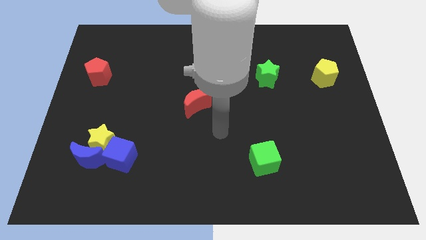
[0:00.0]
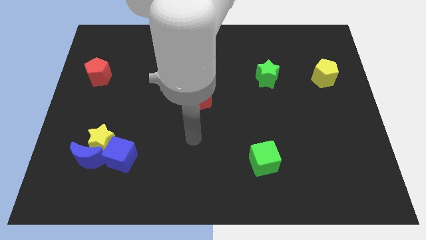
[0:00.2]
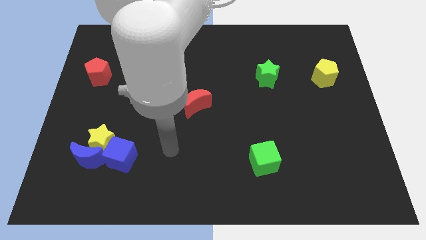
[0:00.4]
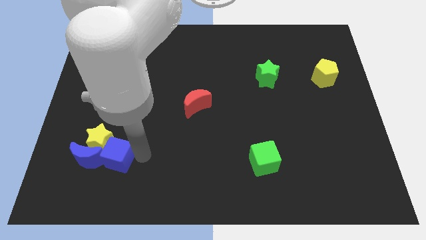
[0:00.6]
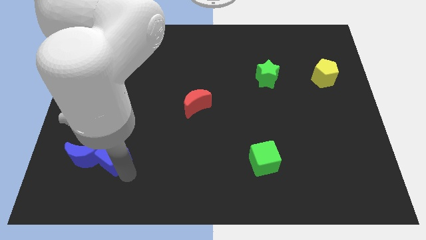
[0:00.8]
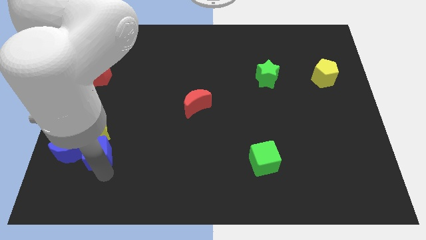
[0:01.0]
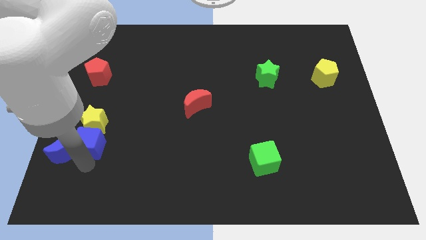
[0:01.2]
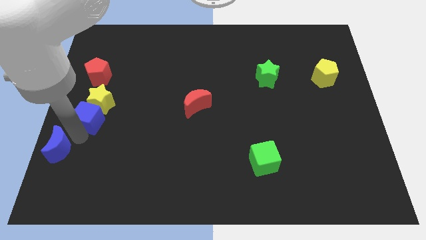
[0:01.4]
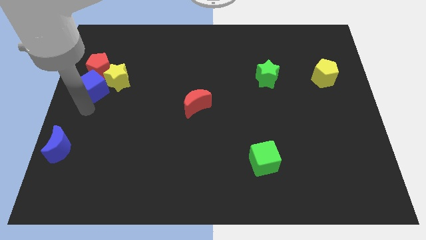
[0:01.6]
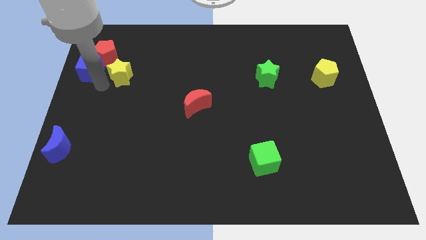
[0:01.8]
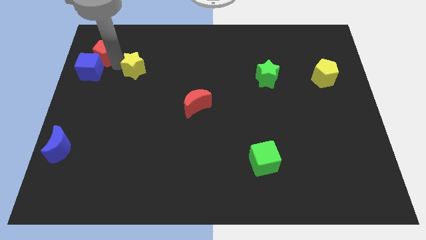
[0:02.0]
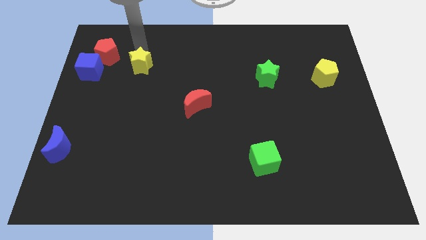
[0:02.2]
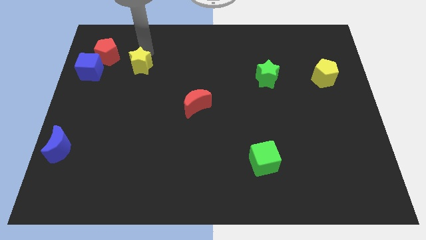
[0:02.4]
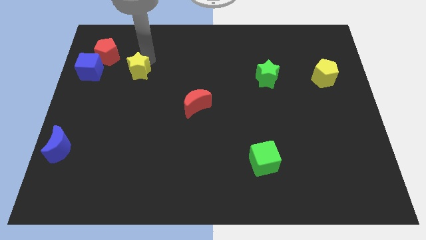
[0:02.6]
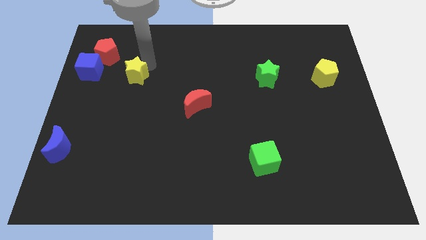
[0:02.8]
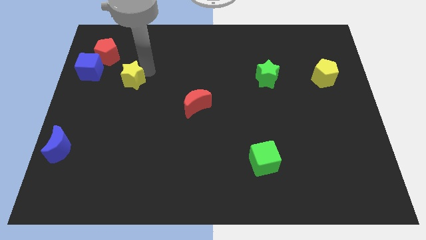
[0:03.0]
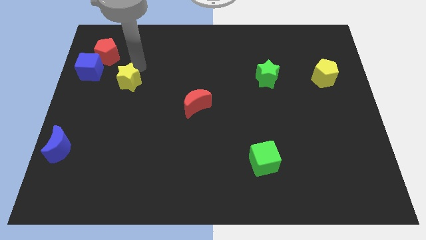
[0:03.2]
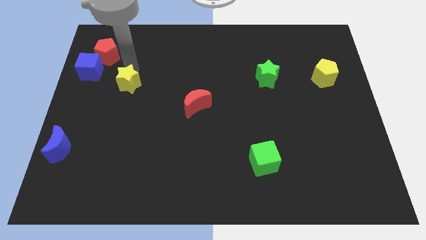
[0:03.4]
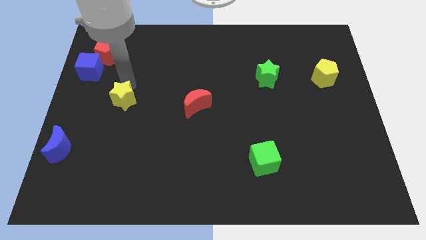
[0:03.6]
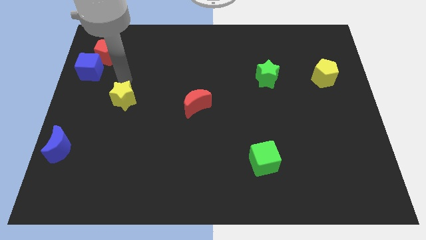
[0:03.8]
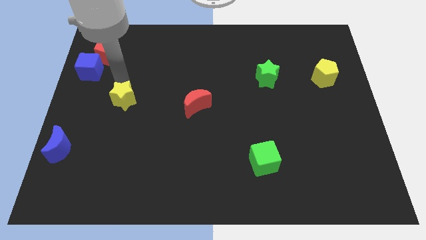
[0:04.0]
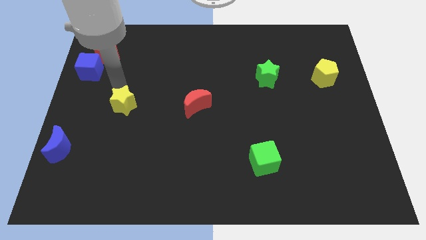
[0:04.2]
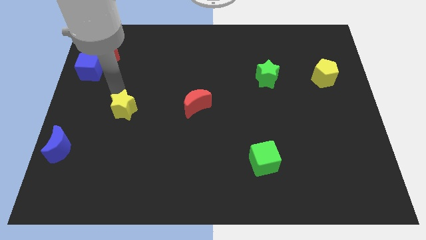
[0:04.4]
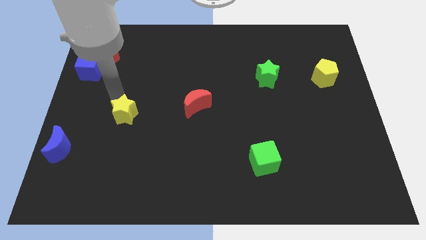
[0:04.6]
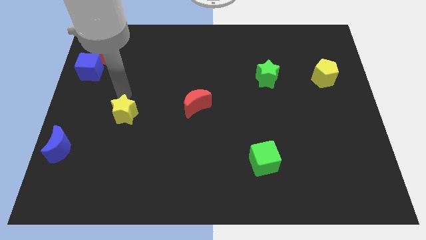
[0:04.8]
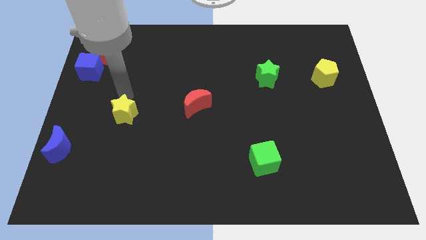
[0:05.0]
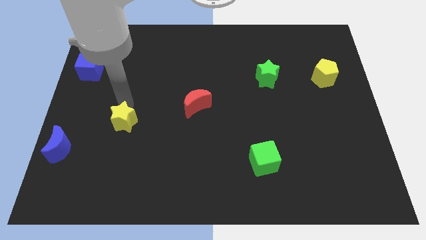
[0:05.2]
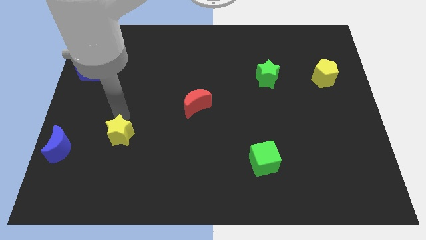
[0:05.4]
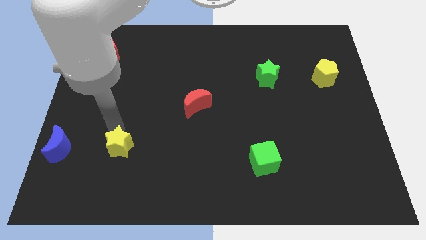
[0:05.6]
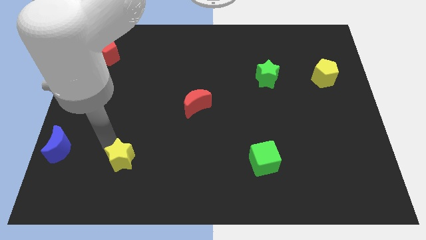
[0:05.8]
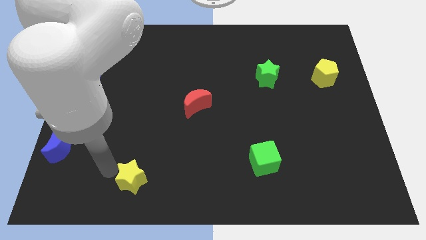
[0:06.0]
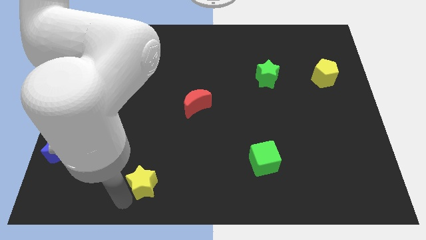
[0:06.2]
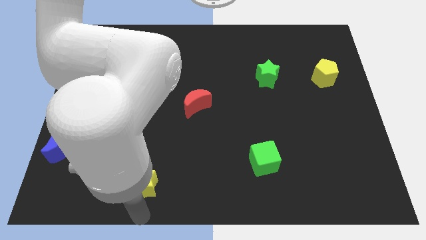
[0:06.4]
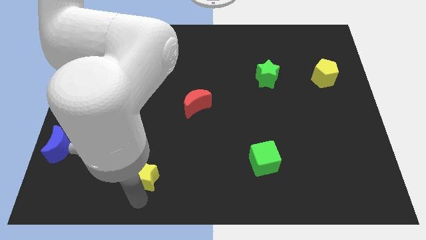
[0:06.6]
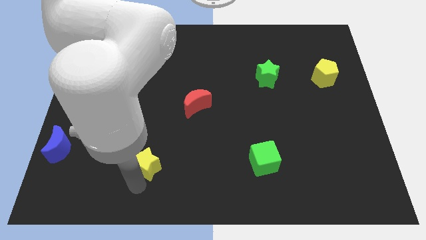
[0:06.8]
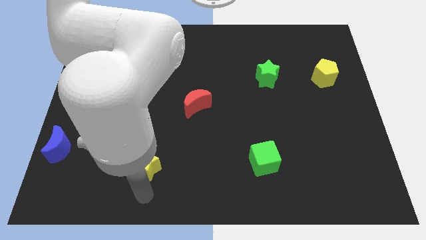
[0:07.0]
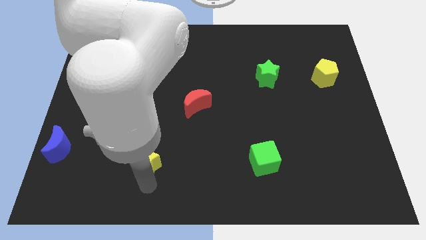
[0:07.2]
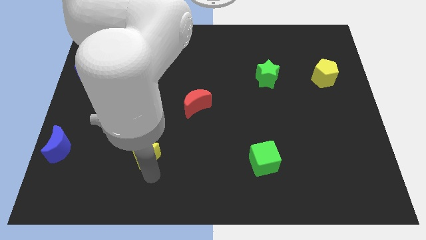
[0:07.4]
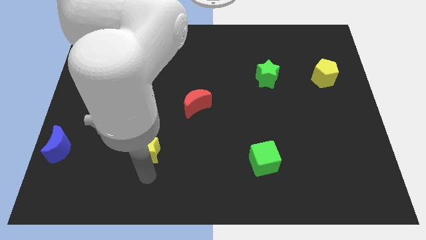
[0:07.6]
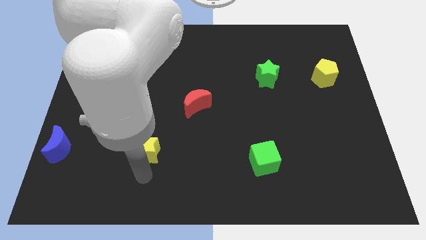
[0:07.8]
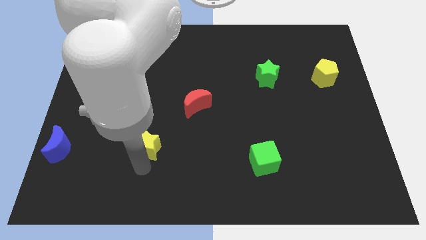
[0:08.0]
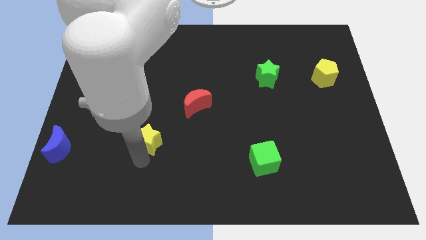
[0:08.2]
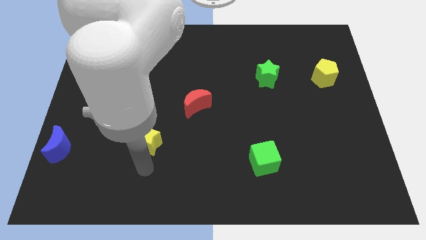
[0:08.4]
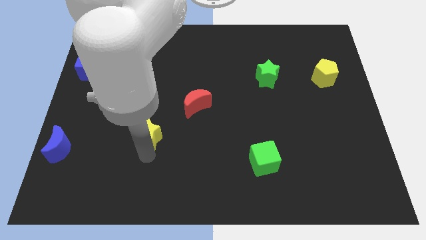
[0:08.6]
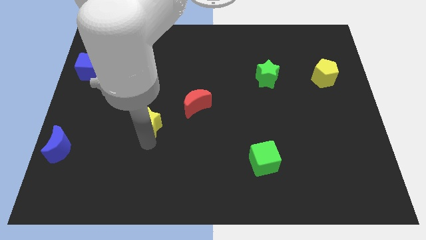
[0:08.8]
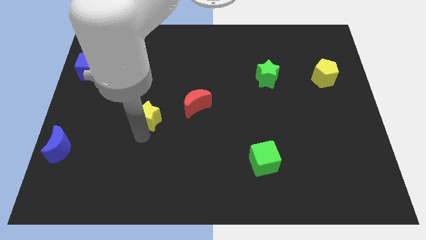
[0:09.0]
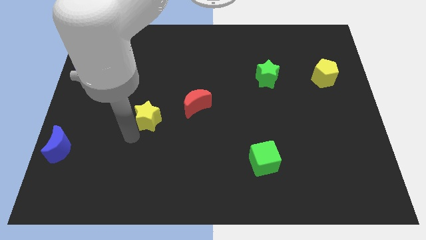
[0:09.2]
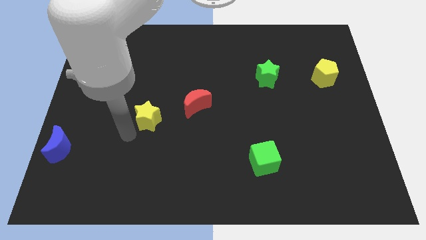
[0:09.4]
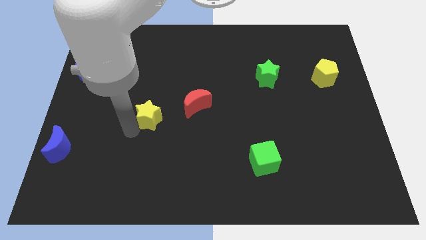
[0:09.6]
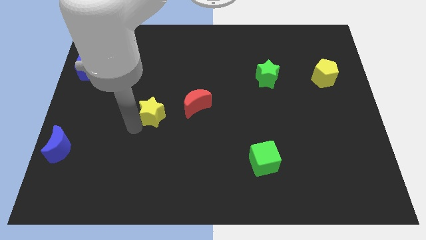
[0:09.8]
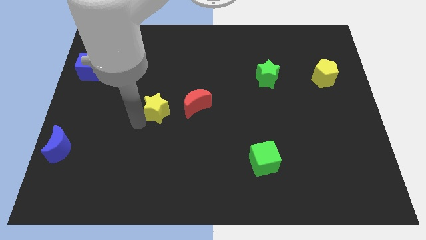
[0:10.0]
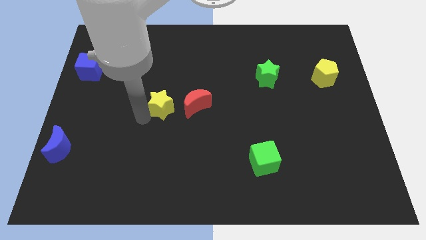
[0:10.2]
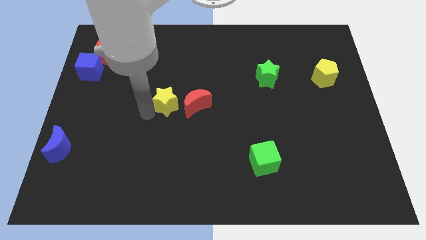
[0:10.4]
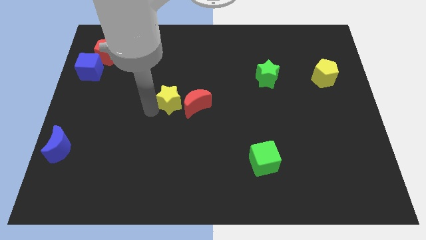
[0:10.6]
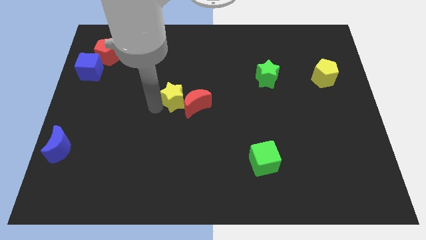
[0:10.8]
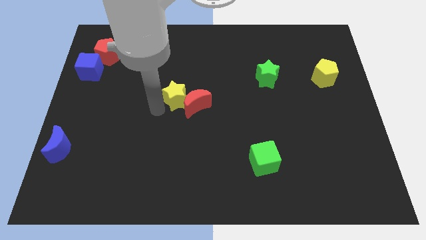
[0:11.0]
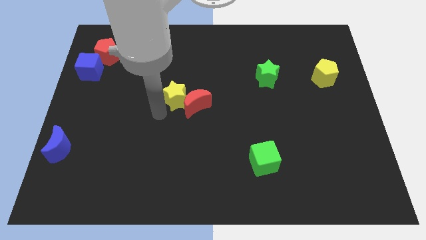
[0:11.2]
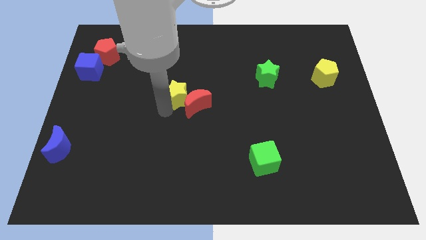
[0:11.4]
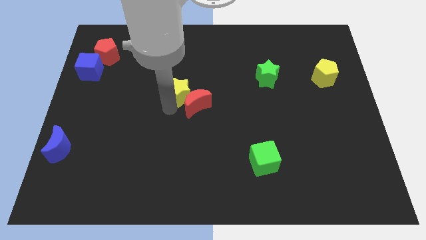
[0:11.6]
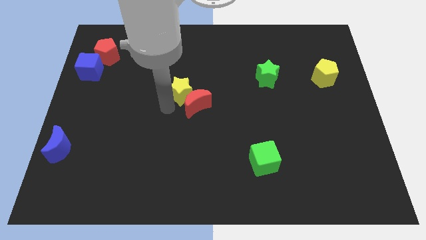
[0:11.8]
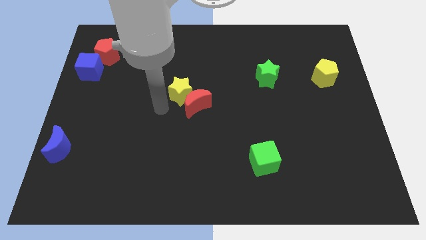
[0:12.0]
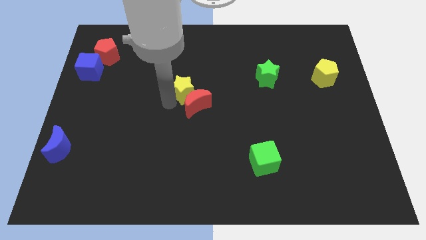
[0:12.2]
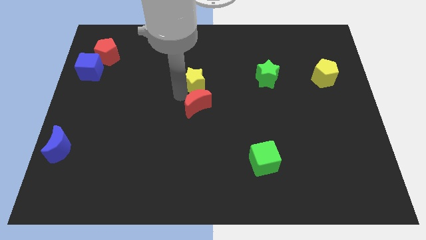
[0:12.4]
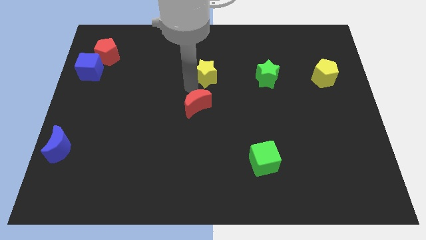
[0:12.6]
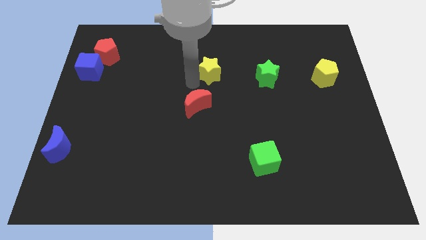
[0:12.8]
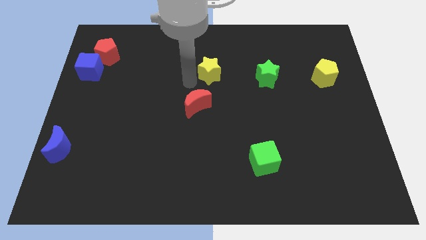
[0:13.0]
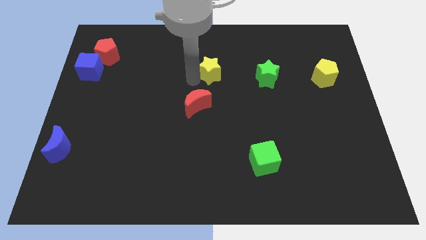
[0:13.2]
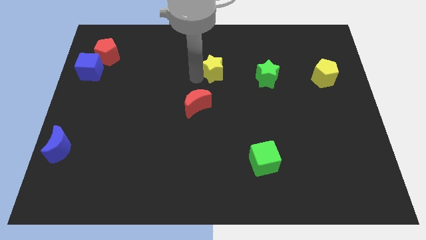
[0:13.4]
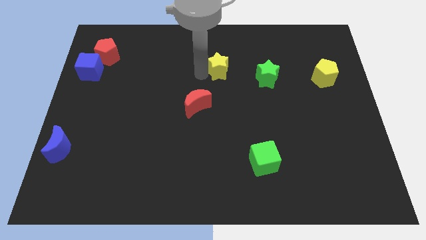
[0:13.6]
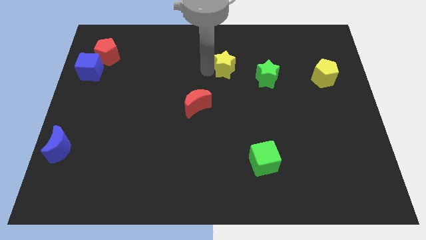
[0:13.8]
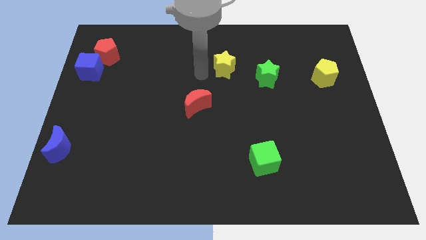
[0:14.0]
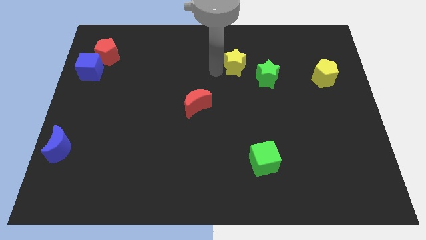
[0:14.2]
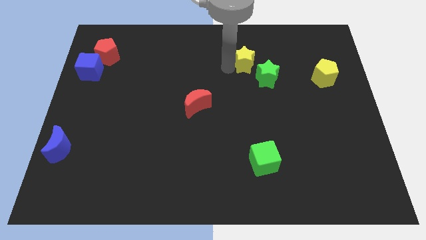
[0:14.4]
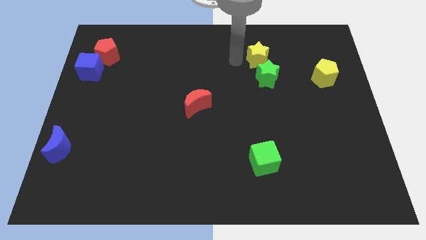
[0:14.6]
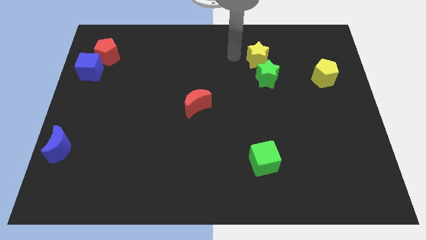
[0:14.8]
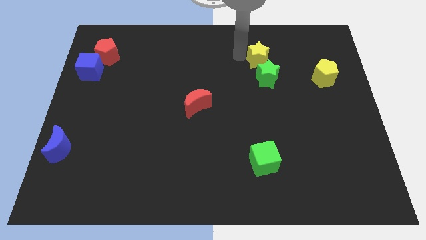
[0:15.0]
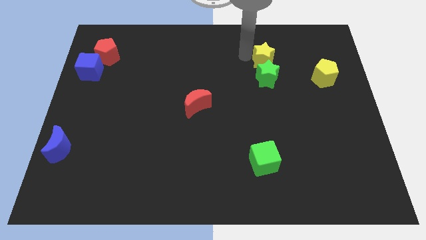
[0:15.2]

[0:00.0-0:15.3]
move the yellow star to the top right of the green star

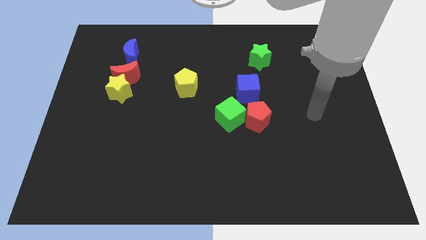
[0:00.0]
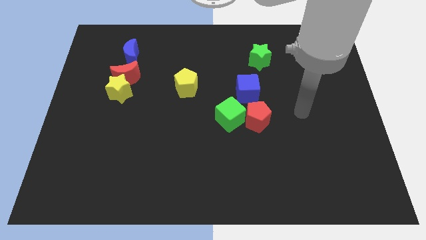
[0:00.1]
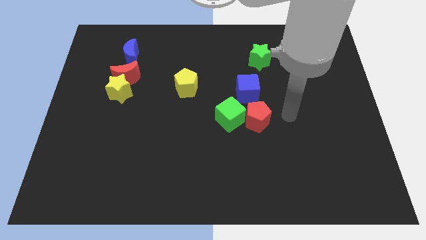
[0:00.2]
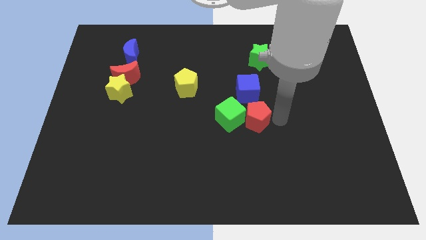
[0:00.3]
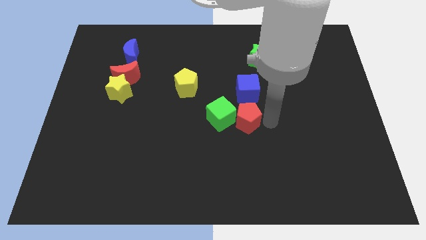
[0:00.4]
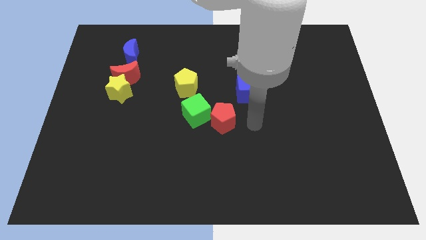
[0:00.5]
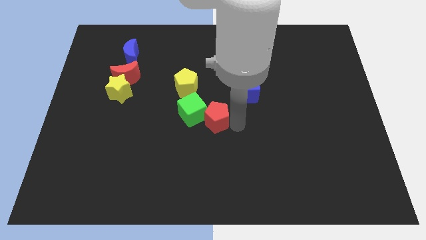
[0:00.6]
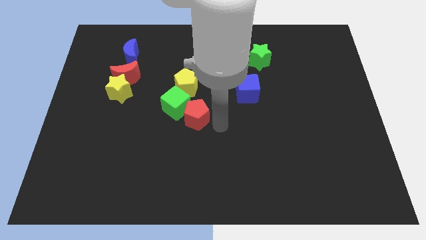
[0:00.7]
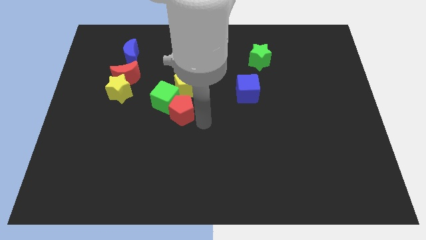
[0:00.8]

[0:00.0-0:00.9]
push the green cube to the bottom right side of the red moon
